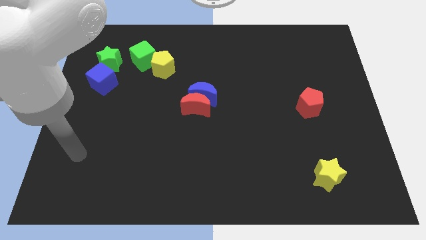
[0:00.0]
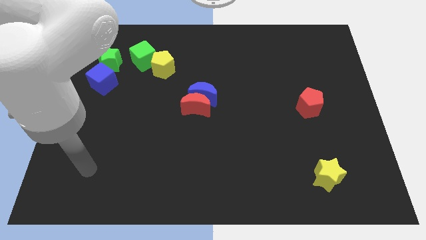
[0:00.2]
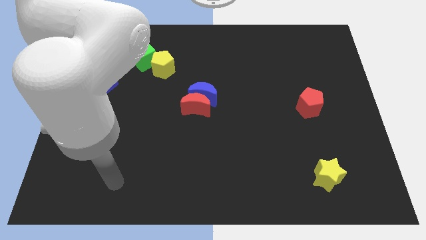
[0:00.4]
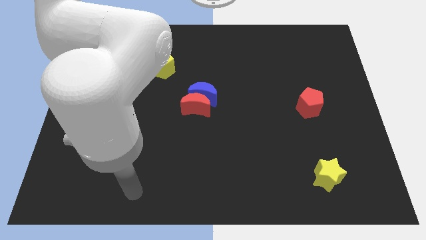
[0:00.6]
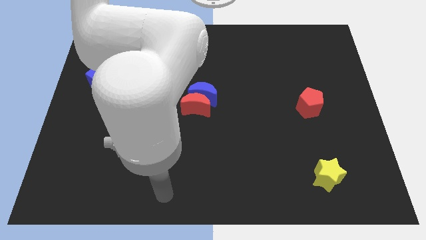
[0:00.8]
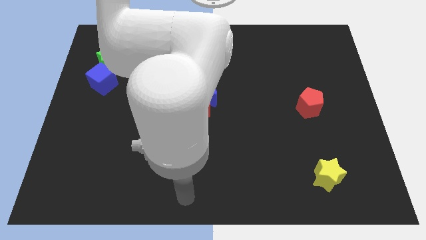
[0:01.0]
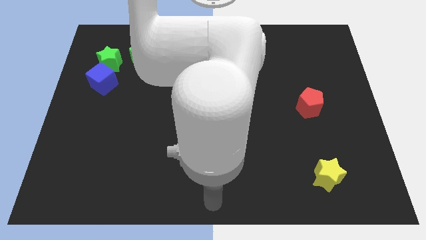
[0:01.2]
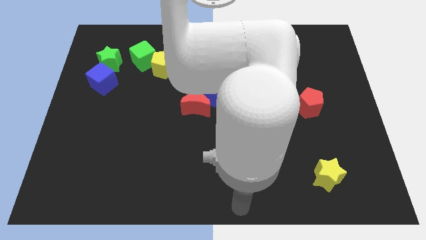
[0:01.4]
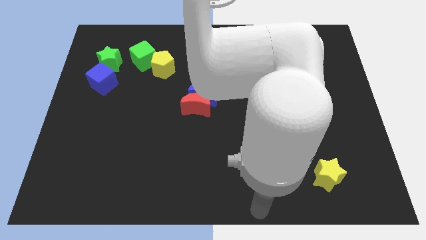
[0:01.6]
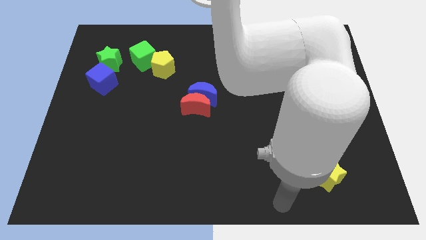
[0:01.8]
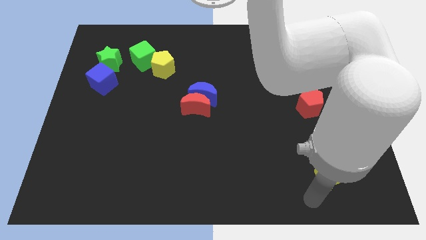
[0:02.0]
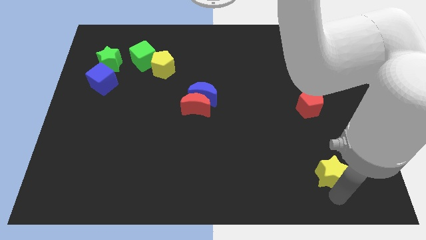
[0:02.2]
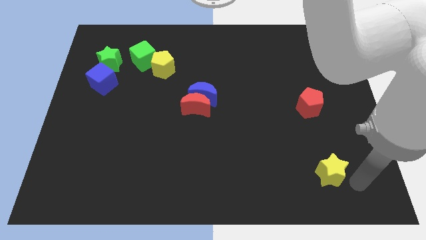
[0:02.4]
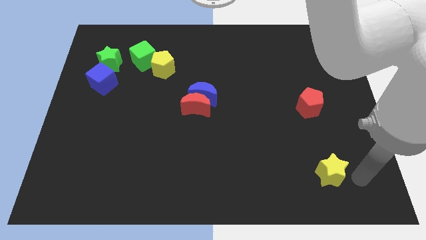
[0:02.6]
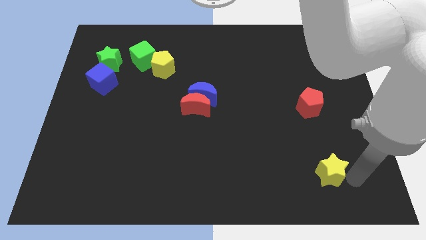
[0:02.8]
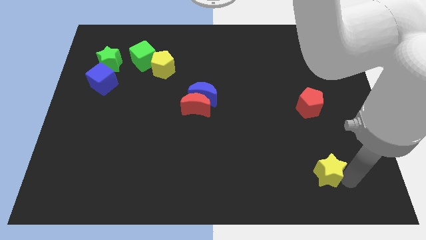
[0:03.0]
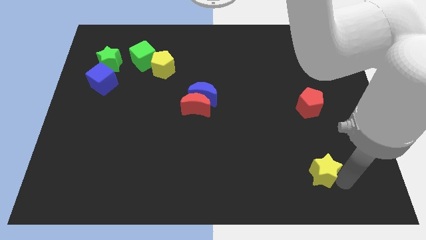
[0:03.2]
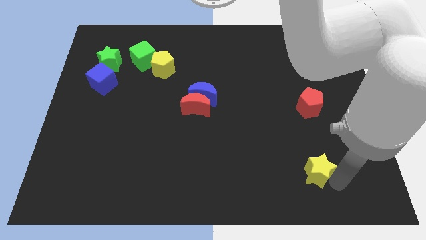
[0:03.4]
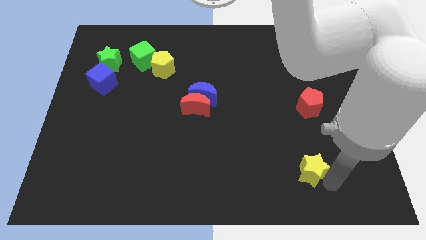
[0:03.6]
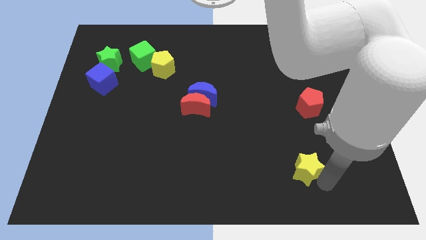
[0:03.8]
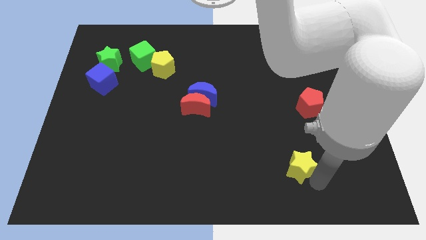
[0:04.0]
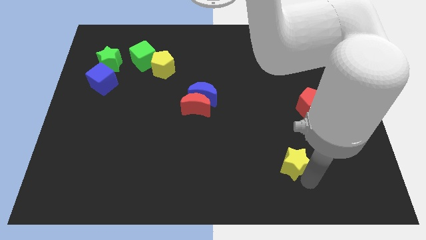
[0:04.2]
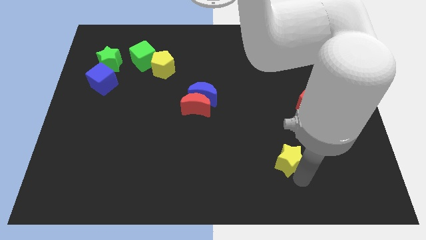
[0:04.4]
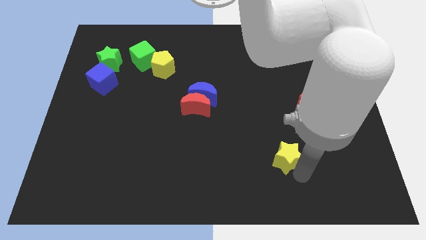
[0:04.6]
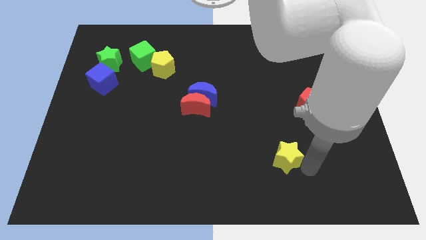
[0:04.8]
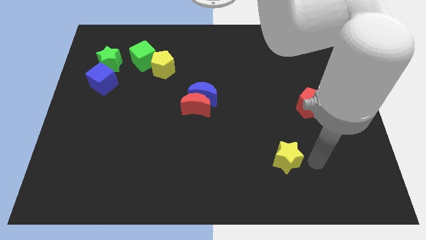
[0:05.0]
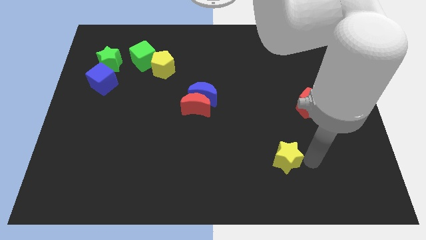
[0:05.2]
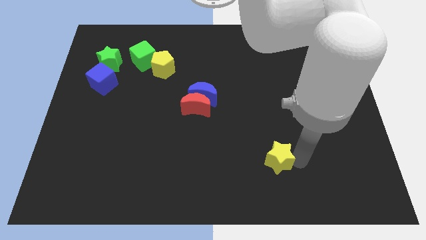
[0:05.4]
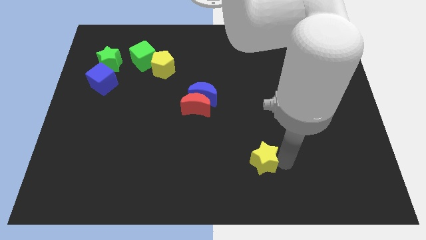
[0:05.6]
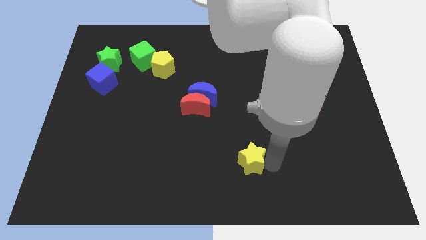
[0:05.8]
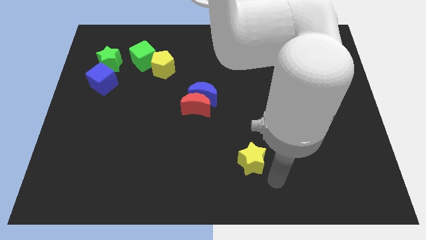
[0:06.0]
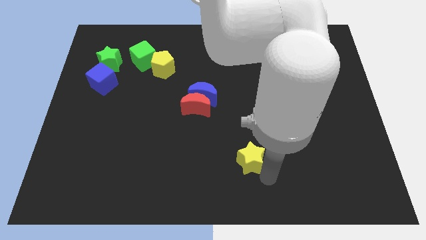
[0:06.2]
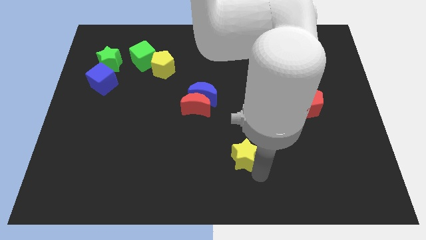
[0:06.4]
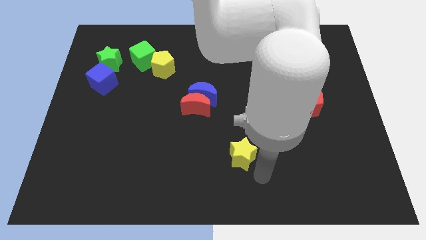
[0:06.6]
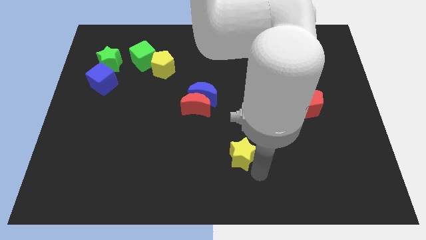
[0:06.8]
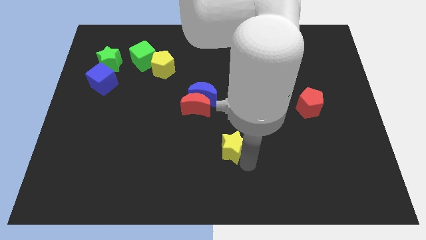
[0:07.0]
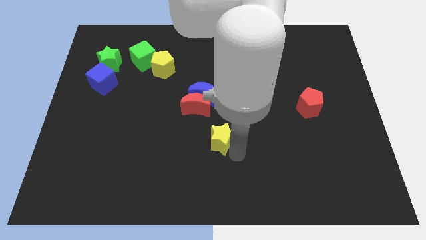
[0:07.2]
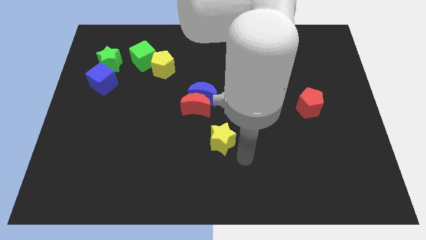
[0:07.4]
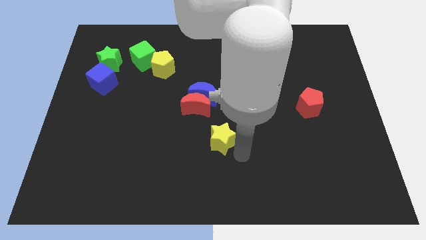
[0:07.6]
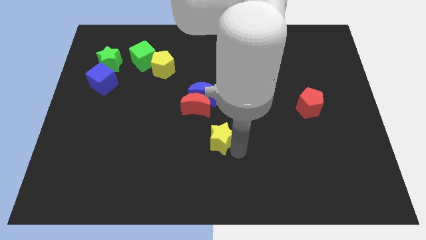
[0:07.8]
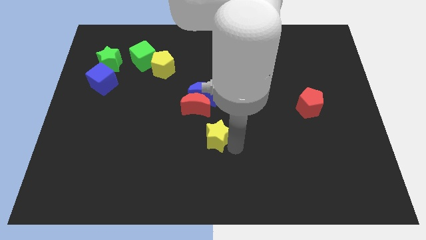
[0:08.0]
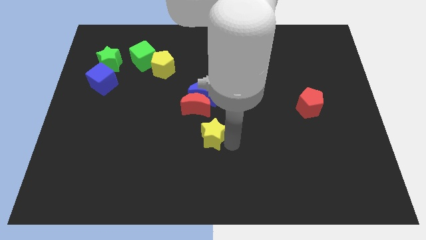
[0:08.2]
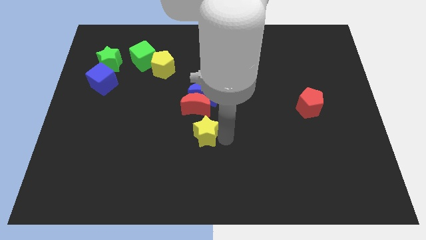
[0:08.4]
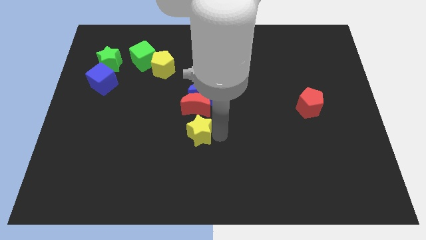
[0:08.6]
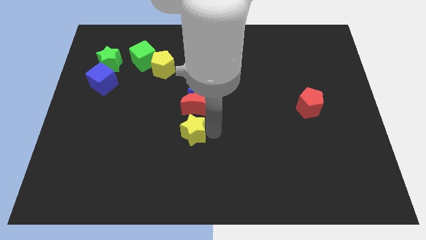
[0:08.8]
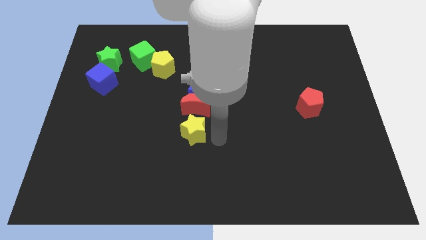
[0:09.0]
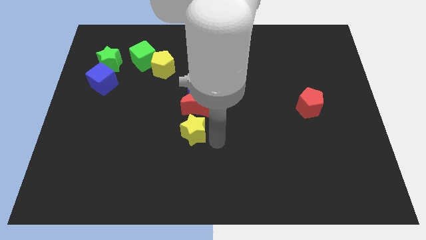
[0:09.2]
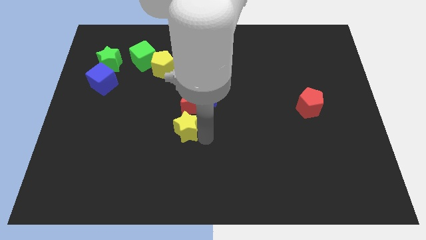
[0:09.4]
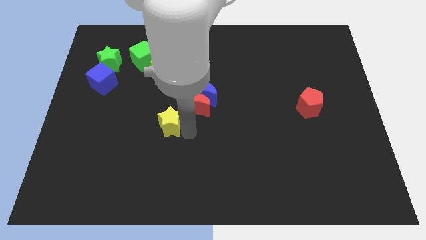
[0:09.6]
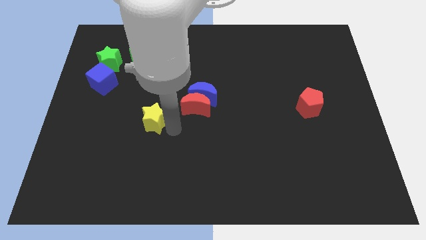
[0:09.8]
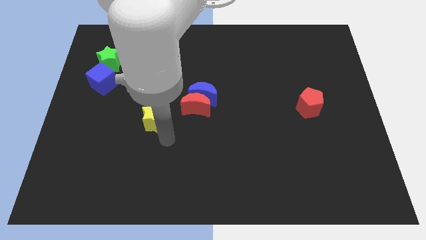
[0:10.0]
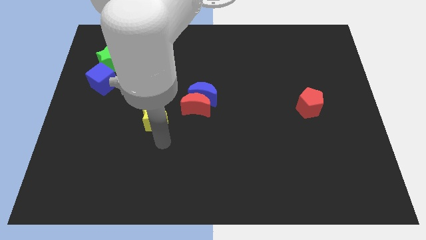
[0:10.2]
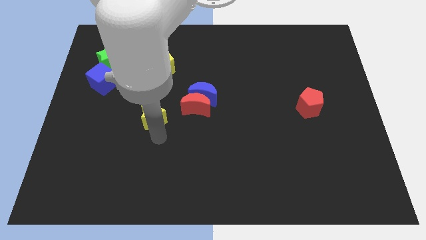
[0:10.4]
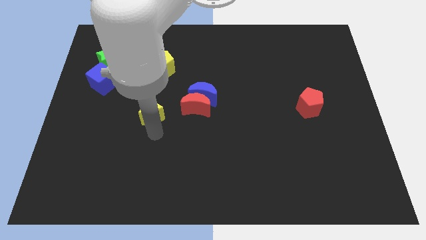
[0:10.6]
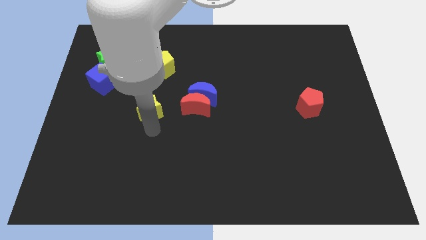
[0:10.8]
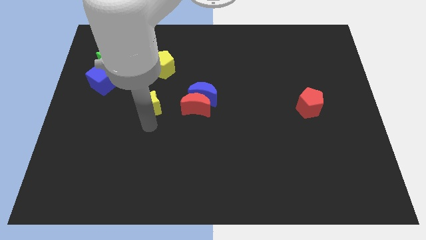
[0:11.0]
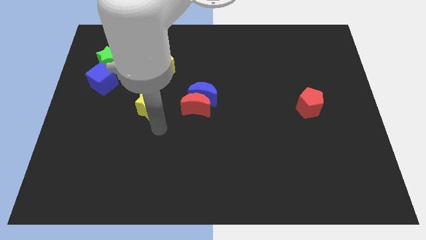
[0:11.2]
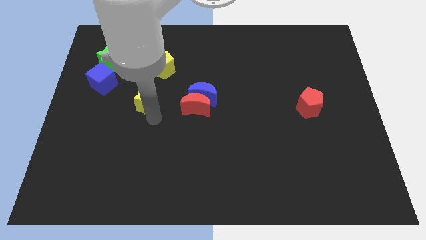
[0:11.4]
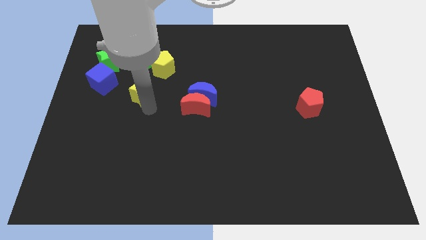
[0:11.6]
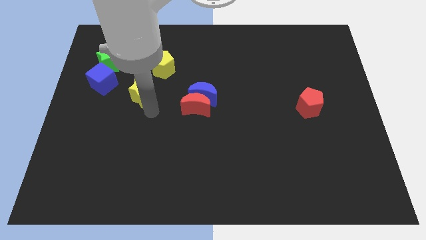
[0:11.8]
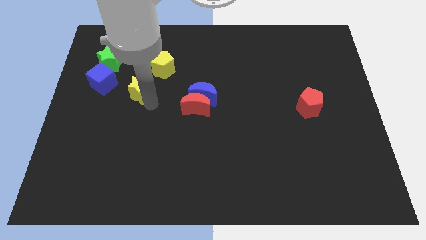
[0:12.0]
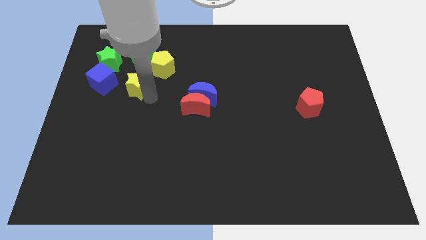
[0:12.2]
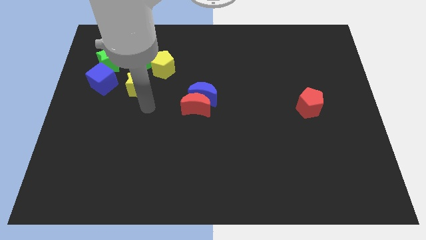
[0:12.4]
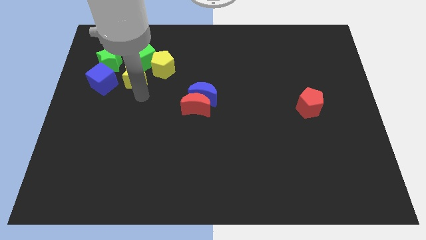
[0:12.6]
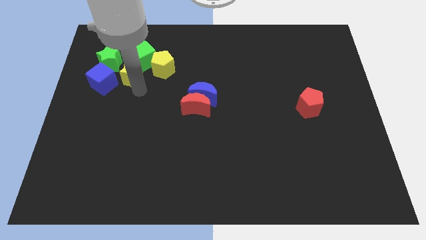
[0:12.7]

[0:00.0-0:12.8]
put the yellow star to the top right of the blue cube
